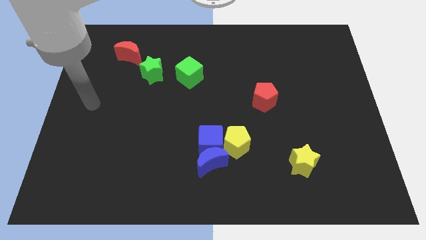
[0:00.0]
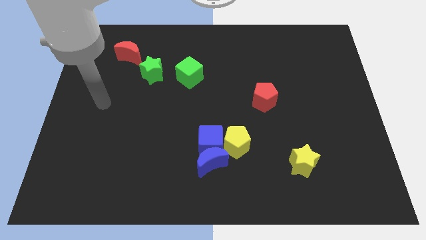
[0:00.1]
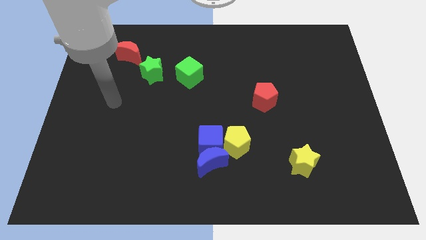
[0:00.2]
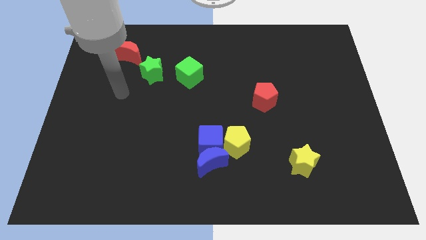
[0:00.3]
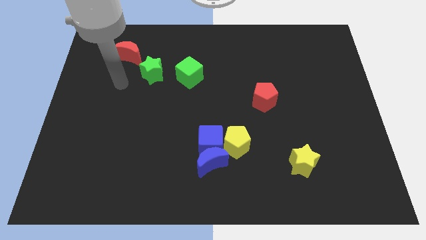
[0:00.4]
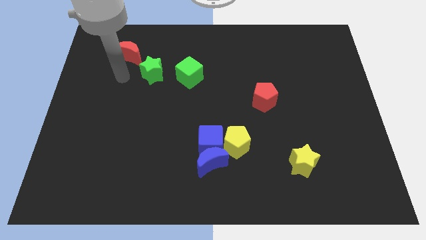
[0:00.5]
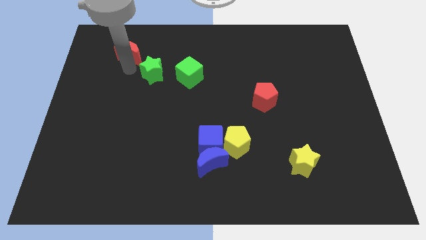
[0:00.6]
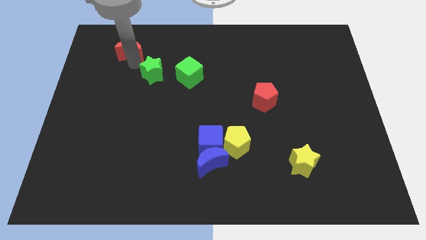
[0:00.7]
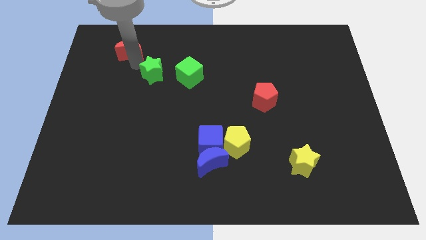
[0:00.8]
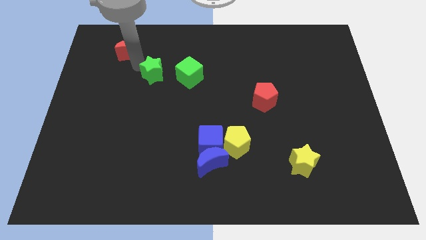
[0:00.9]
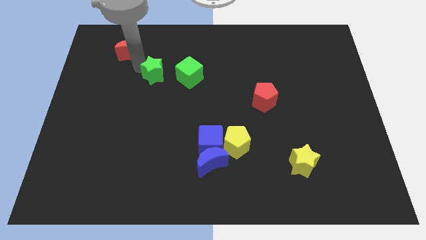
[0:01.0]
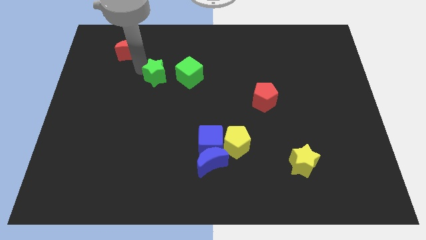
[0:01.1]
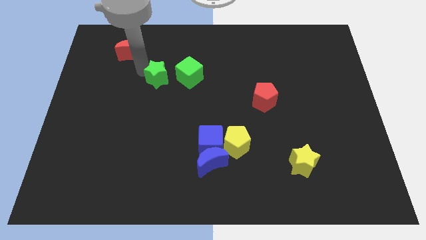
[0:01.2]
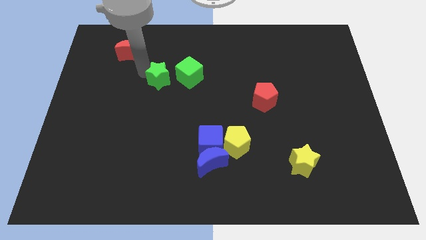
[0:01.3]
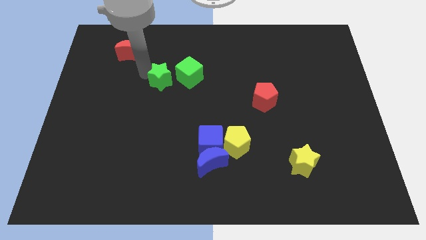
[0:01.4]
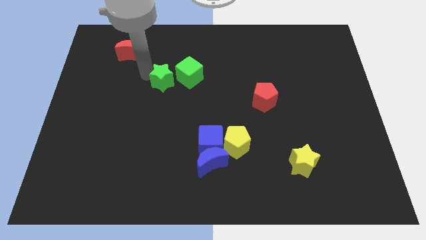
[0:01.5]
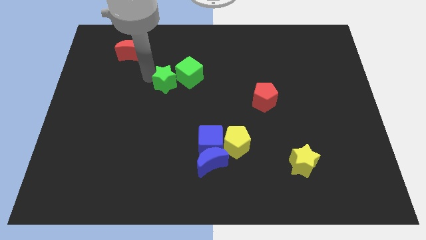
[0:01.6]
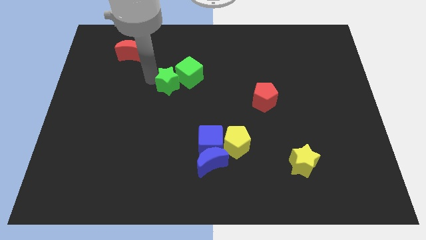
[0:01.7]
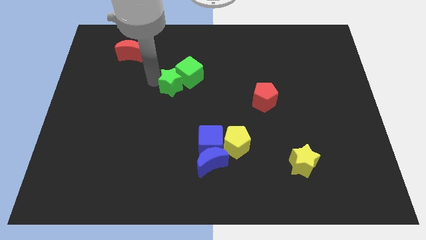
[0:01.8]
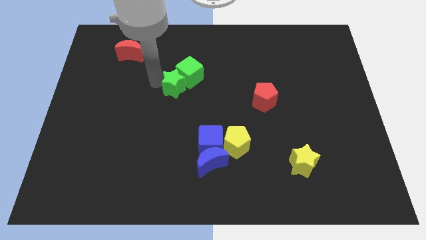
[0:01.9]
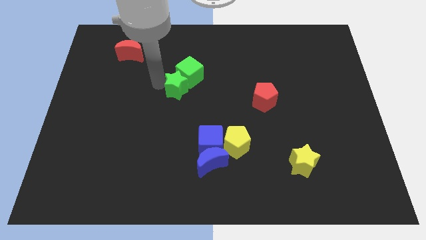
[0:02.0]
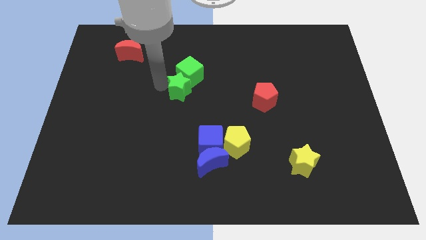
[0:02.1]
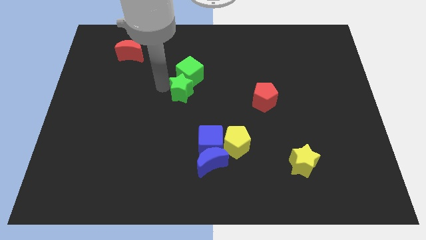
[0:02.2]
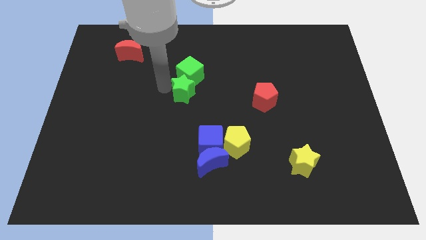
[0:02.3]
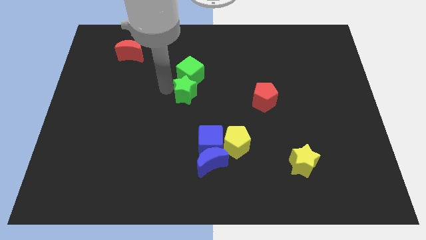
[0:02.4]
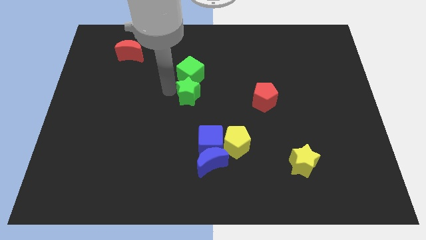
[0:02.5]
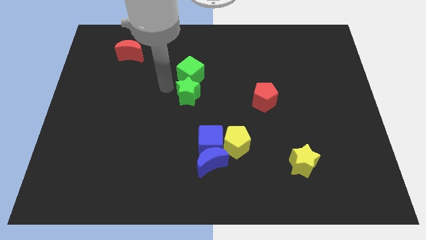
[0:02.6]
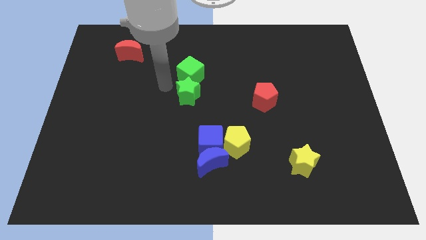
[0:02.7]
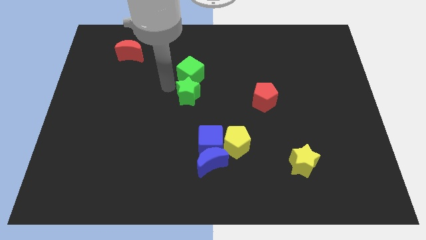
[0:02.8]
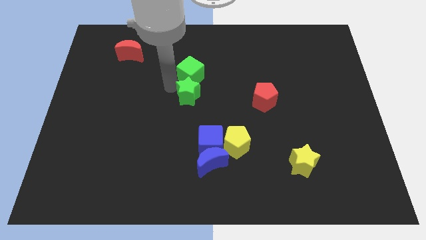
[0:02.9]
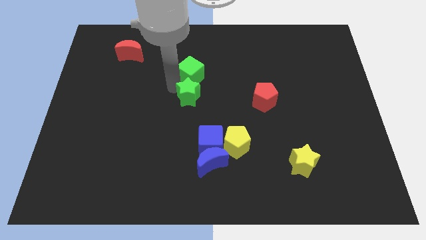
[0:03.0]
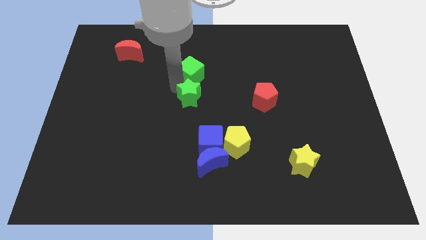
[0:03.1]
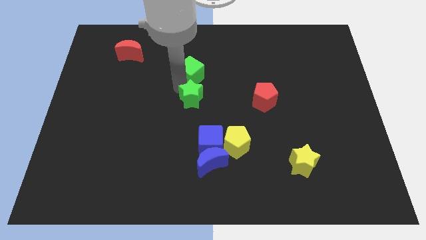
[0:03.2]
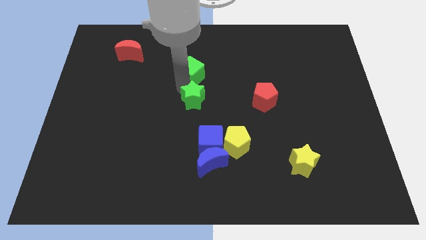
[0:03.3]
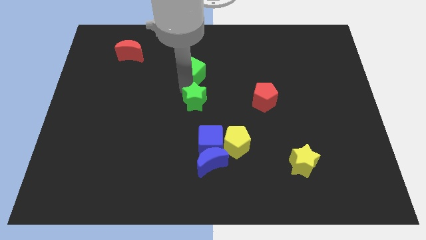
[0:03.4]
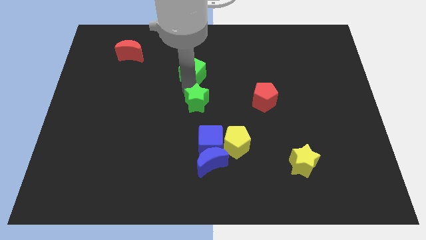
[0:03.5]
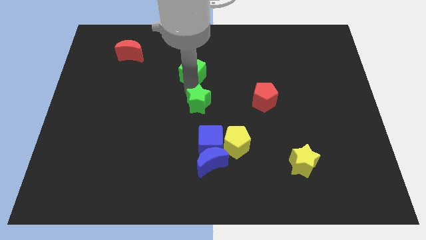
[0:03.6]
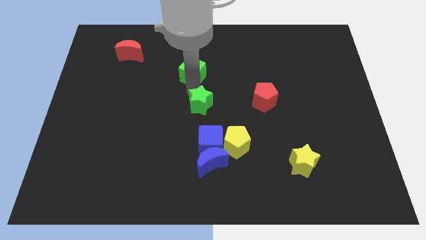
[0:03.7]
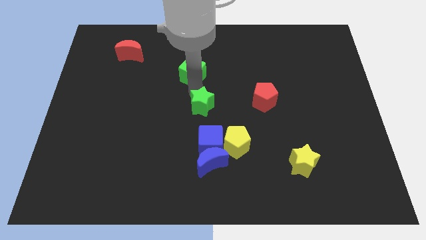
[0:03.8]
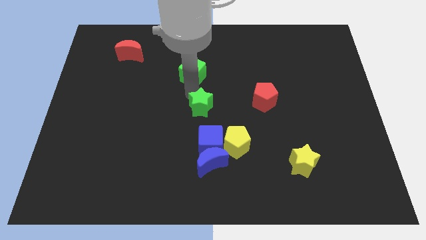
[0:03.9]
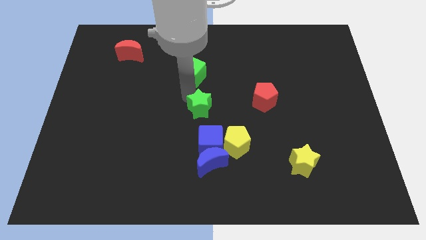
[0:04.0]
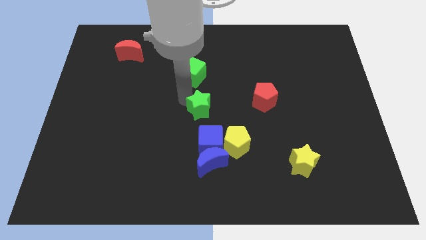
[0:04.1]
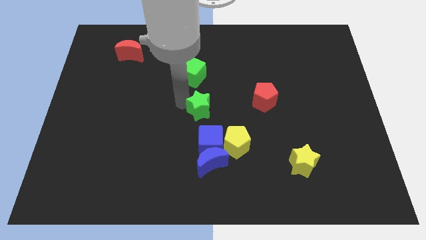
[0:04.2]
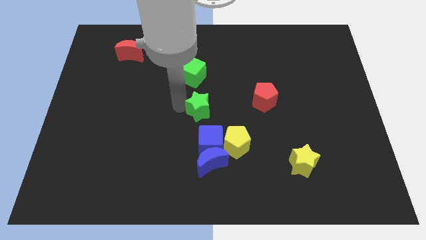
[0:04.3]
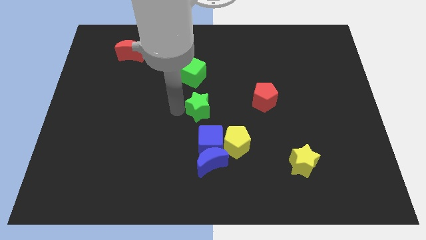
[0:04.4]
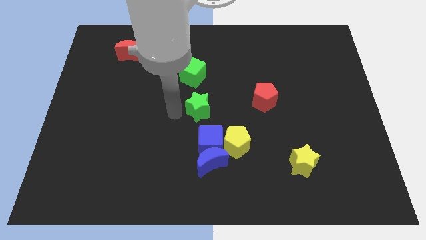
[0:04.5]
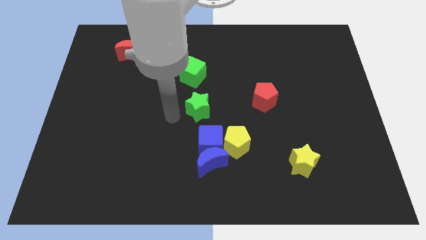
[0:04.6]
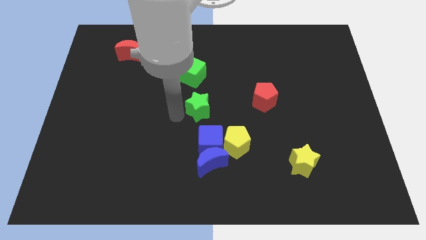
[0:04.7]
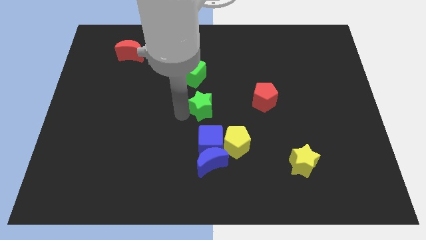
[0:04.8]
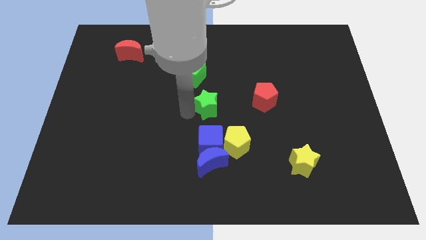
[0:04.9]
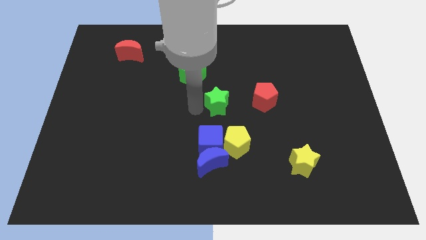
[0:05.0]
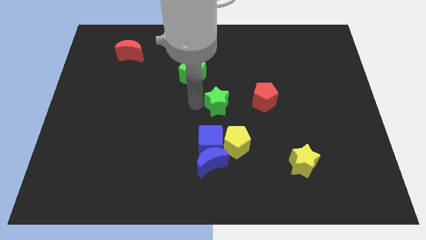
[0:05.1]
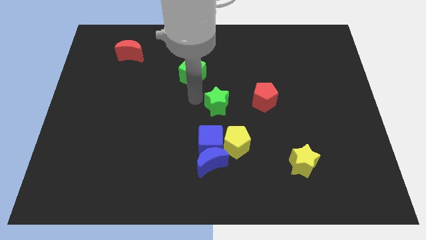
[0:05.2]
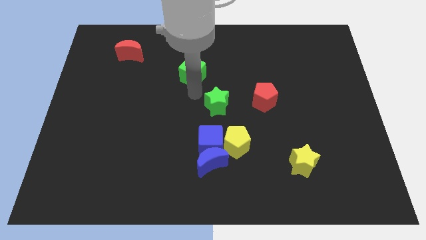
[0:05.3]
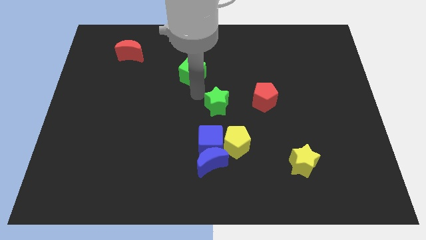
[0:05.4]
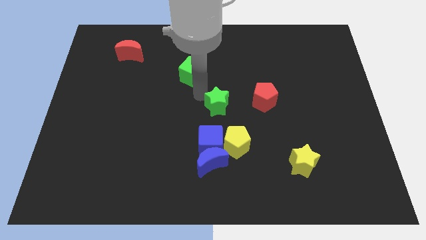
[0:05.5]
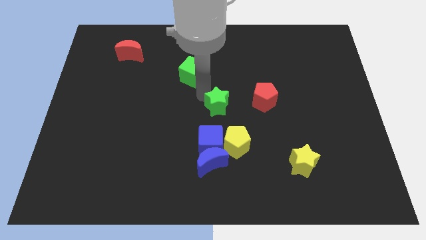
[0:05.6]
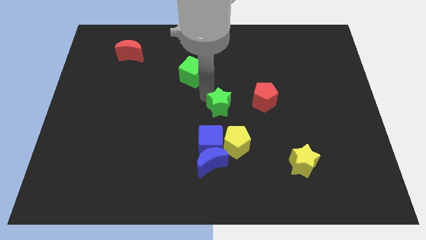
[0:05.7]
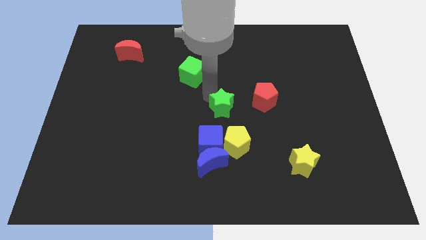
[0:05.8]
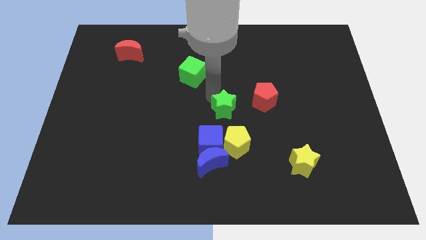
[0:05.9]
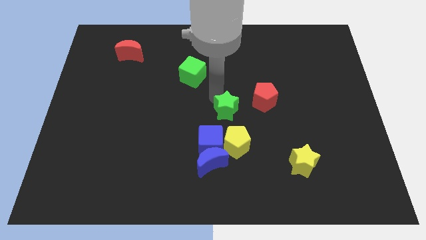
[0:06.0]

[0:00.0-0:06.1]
move the green star diagonally down and to the left of the red pentagon
